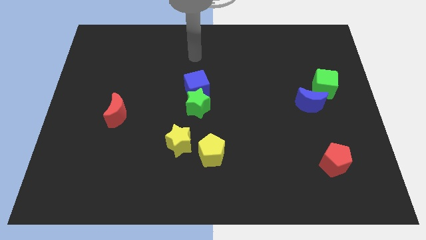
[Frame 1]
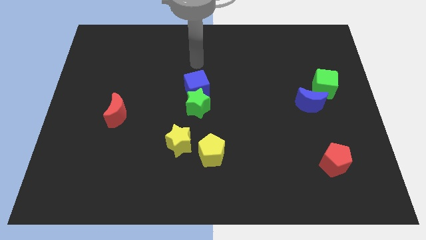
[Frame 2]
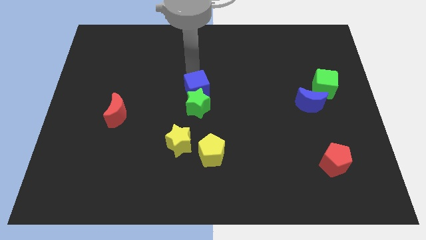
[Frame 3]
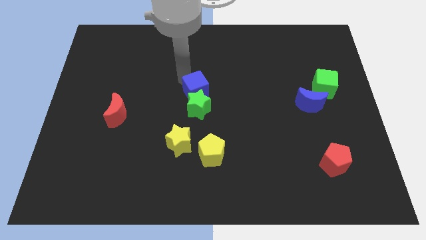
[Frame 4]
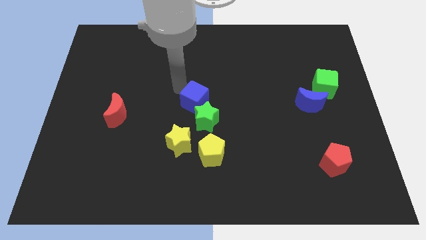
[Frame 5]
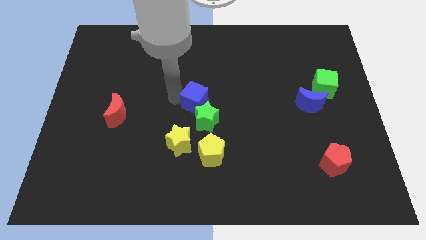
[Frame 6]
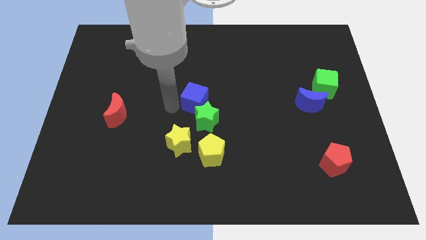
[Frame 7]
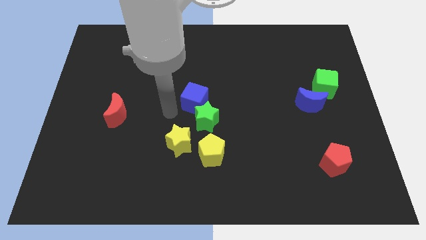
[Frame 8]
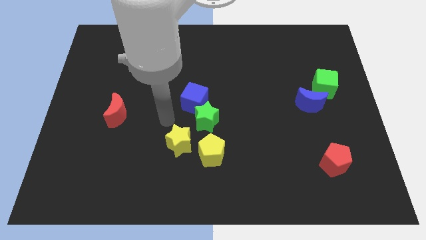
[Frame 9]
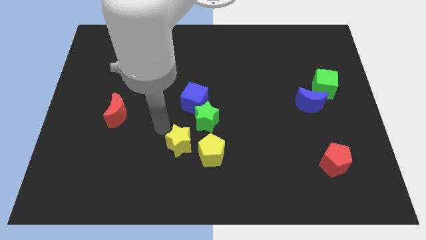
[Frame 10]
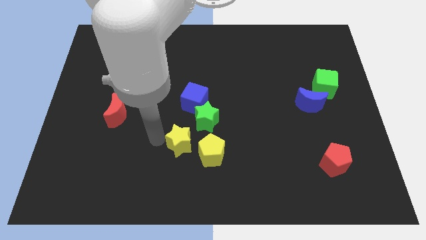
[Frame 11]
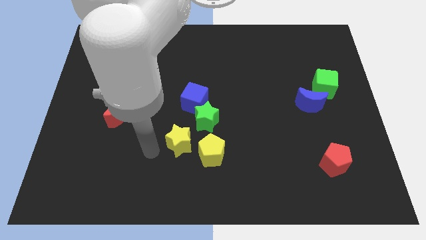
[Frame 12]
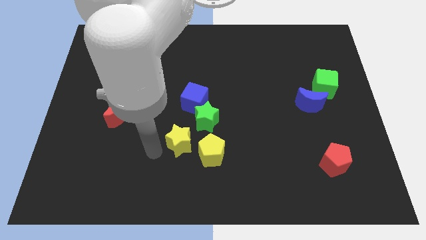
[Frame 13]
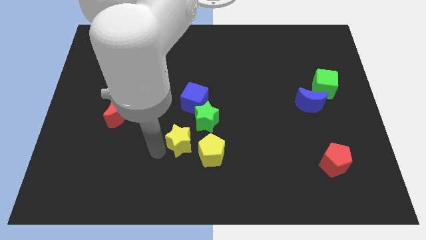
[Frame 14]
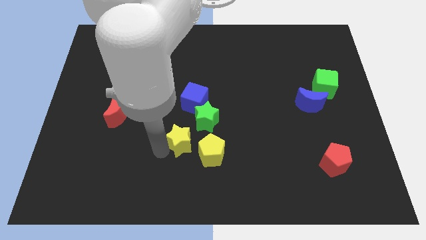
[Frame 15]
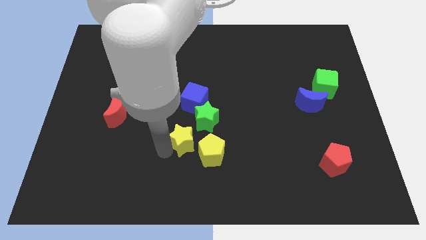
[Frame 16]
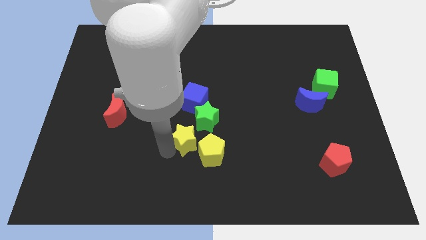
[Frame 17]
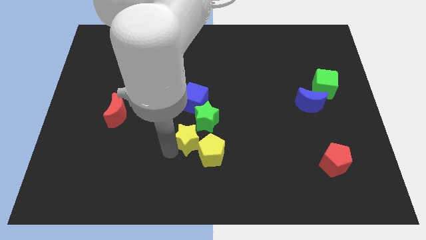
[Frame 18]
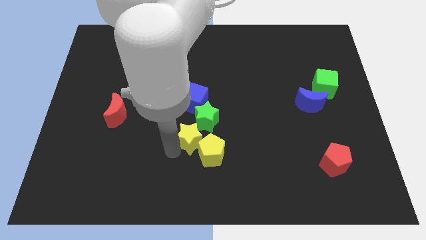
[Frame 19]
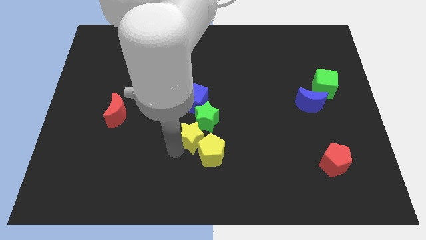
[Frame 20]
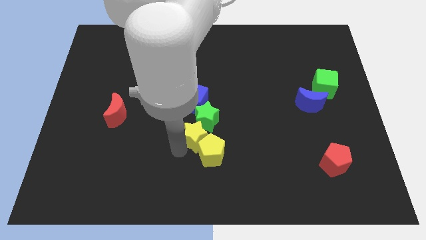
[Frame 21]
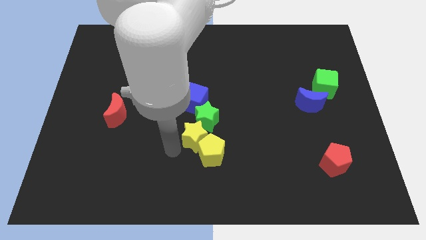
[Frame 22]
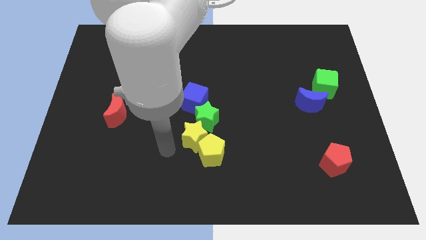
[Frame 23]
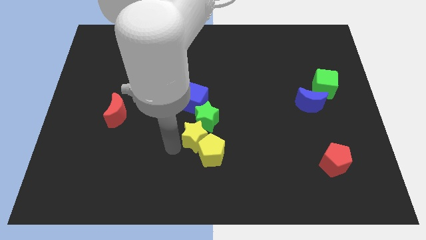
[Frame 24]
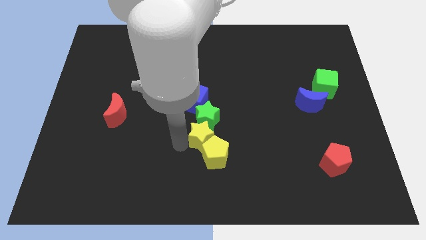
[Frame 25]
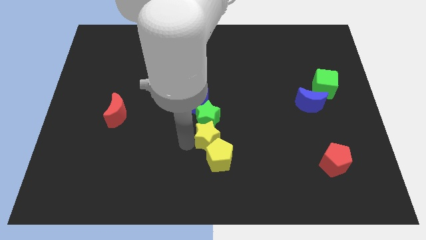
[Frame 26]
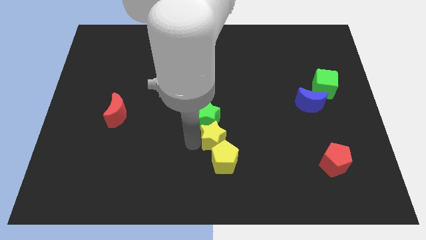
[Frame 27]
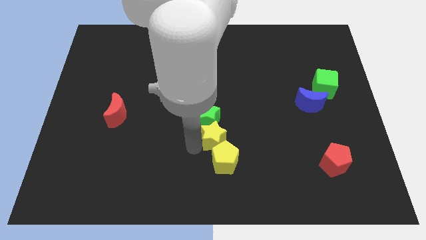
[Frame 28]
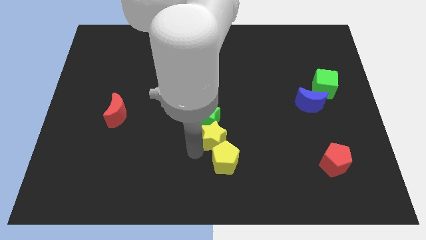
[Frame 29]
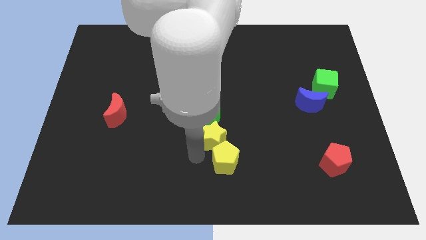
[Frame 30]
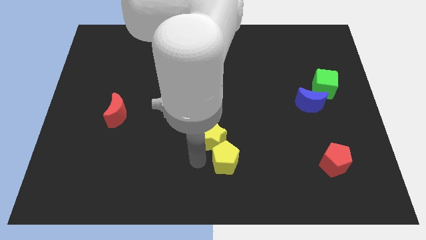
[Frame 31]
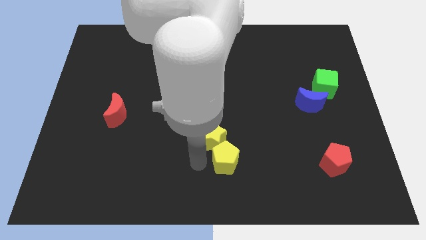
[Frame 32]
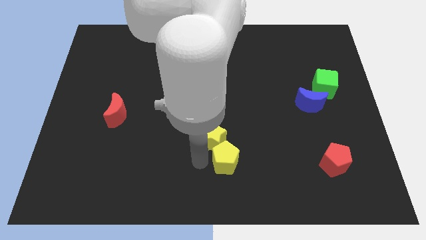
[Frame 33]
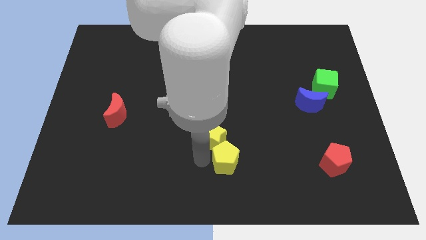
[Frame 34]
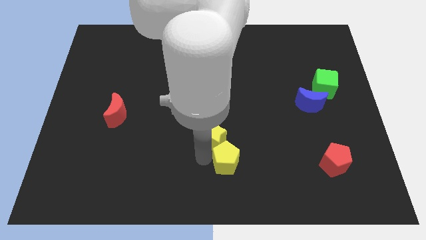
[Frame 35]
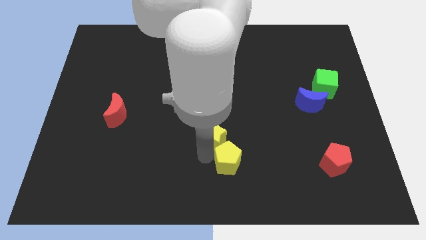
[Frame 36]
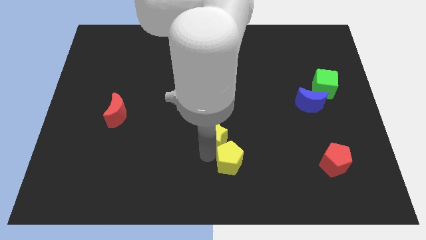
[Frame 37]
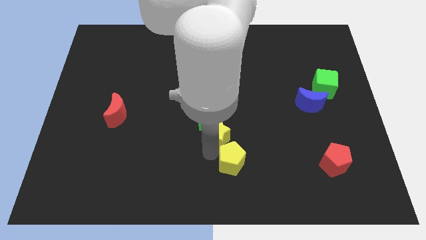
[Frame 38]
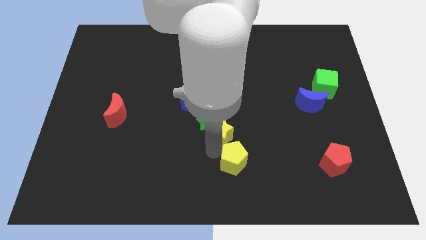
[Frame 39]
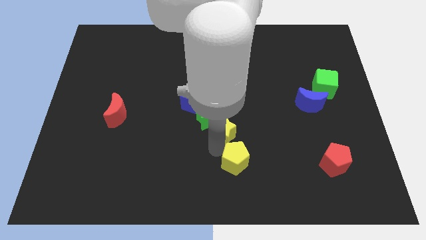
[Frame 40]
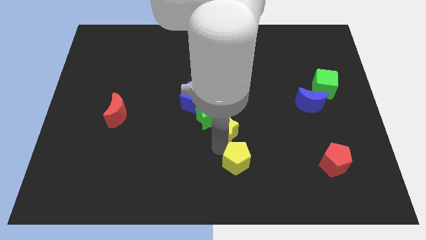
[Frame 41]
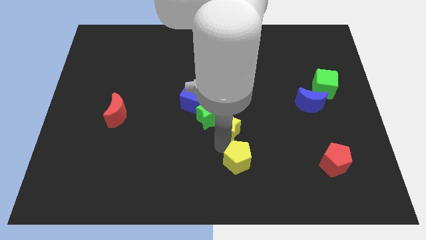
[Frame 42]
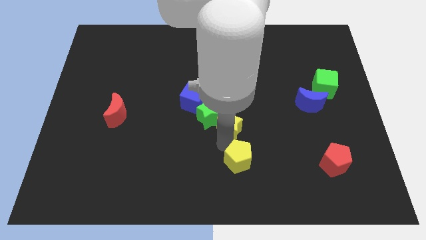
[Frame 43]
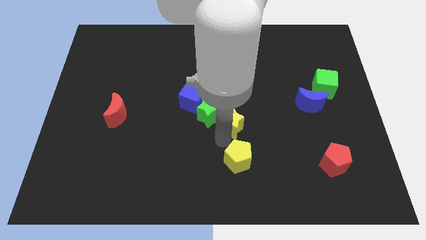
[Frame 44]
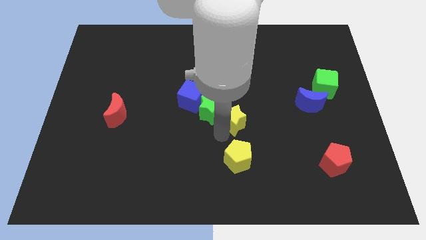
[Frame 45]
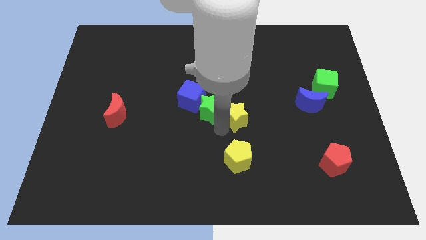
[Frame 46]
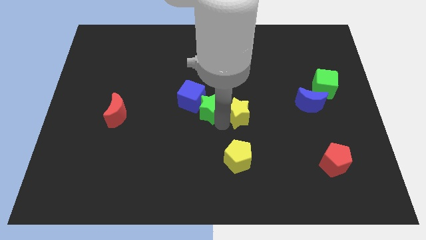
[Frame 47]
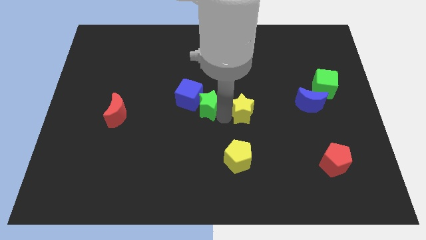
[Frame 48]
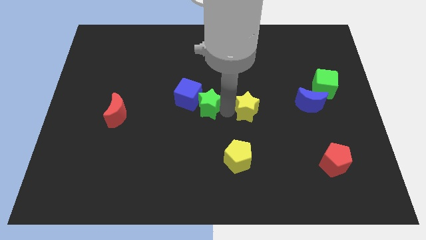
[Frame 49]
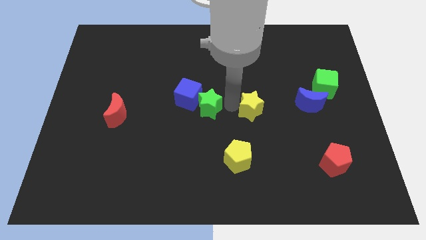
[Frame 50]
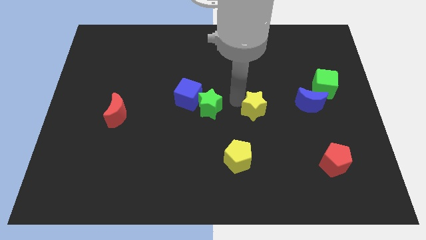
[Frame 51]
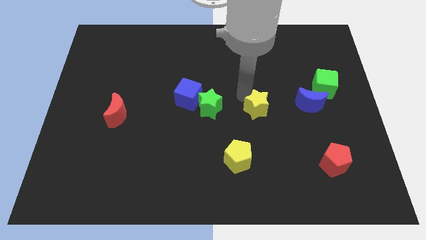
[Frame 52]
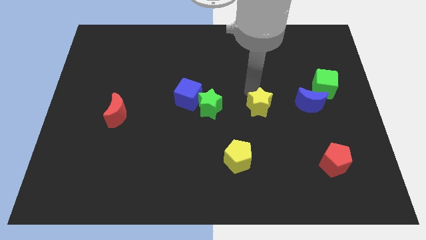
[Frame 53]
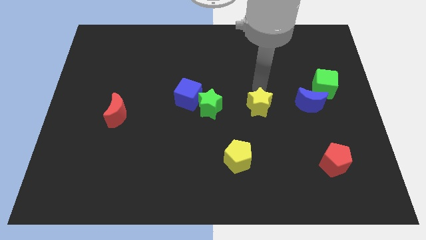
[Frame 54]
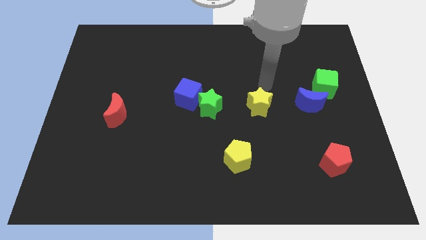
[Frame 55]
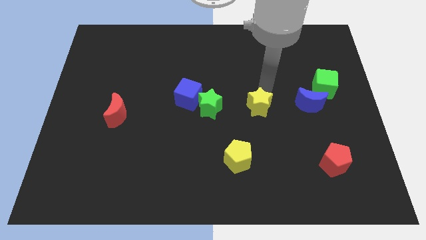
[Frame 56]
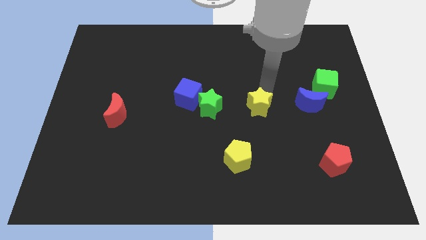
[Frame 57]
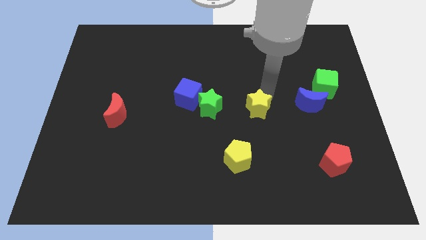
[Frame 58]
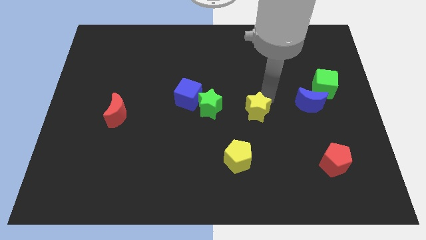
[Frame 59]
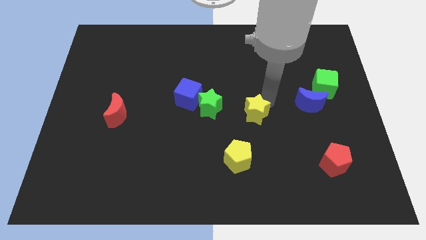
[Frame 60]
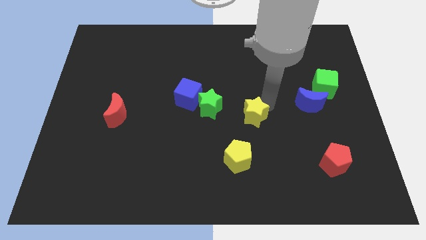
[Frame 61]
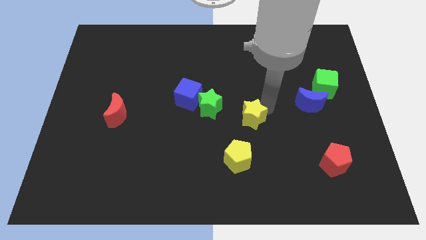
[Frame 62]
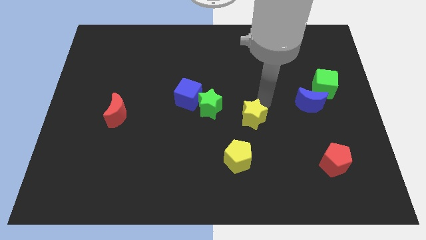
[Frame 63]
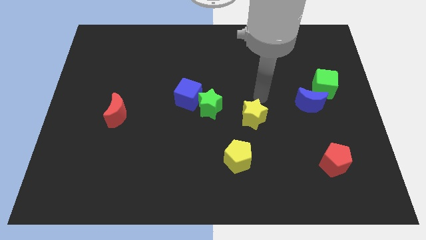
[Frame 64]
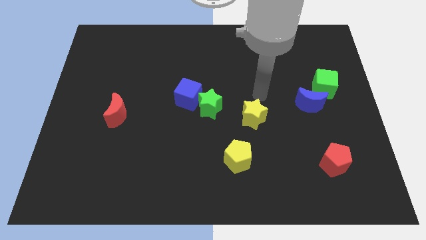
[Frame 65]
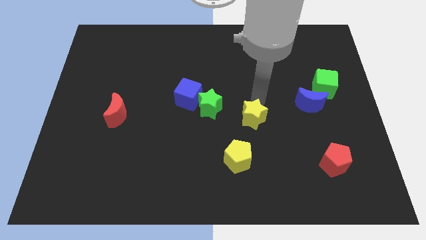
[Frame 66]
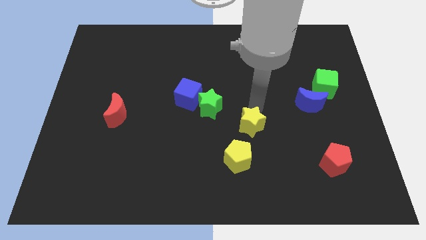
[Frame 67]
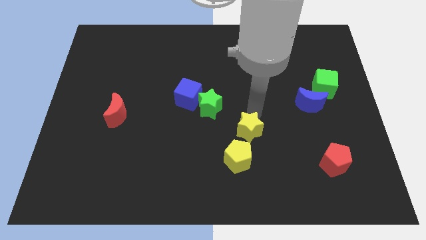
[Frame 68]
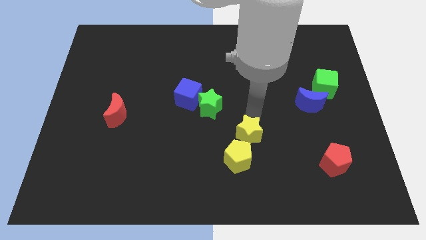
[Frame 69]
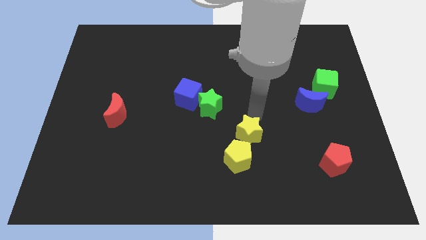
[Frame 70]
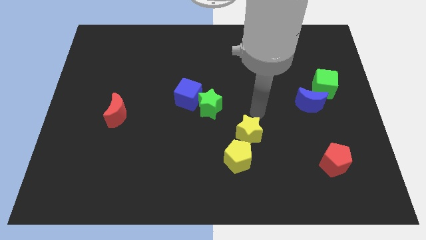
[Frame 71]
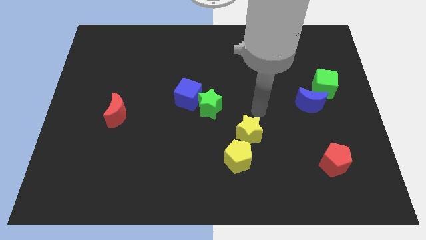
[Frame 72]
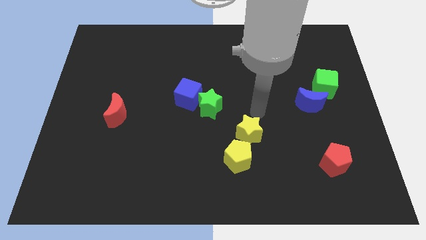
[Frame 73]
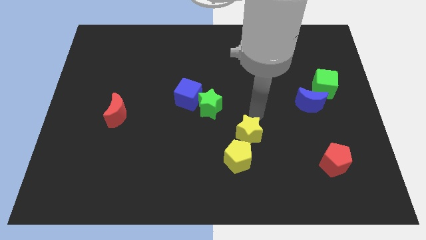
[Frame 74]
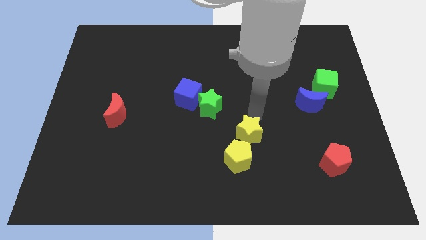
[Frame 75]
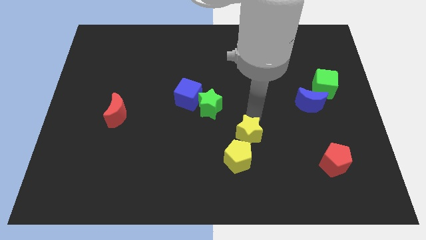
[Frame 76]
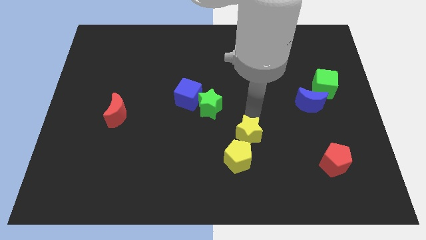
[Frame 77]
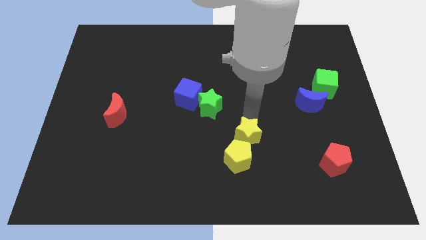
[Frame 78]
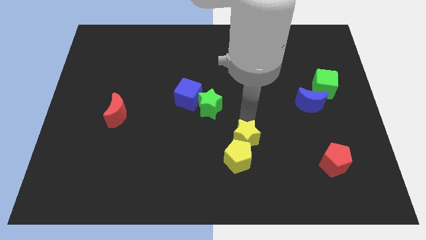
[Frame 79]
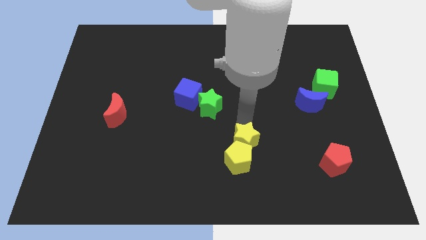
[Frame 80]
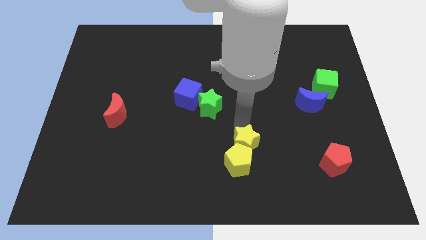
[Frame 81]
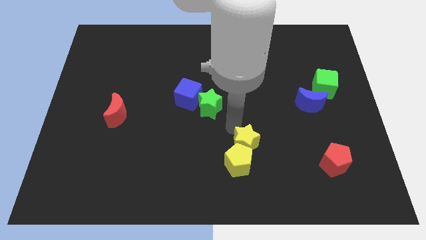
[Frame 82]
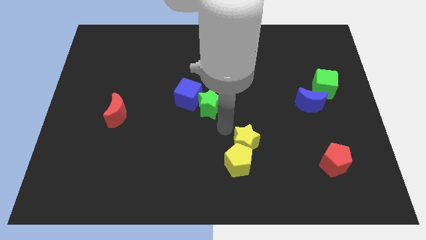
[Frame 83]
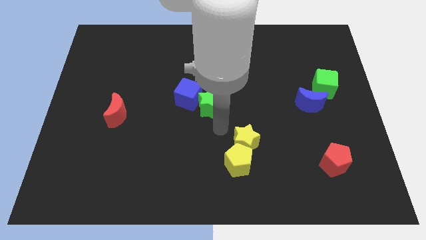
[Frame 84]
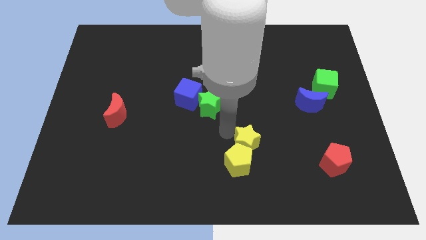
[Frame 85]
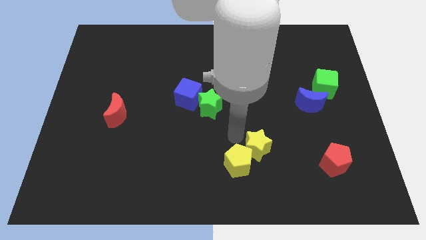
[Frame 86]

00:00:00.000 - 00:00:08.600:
push the yellow star just right of the yellow pentagon
